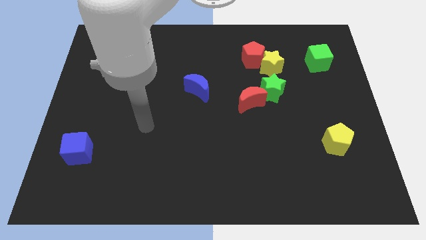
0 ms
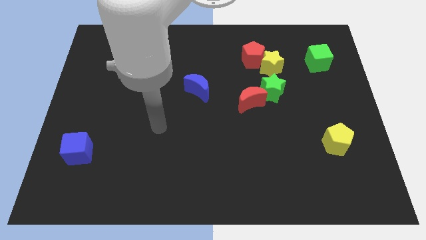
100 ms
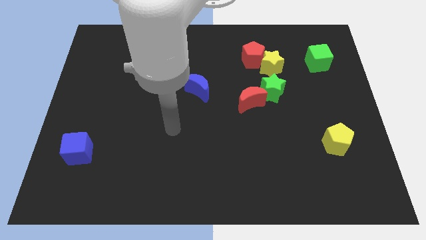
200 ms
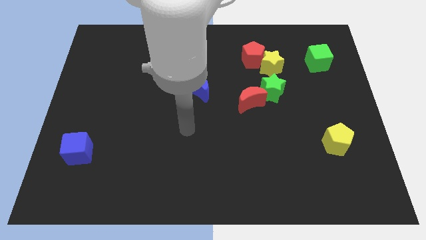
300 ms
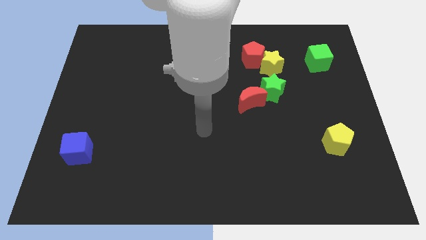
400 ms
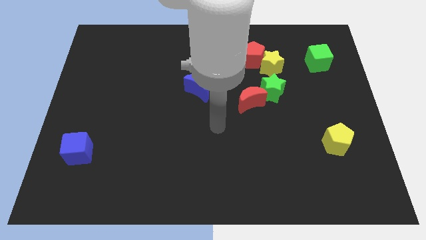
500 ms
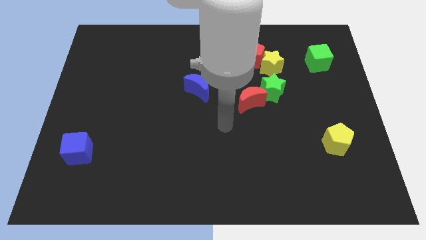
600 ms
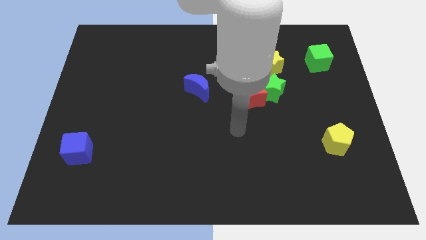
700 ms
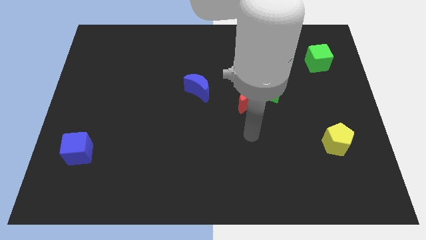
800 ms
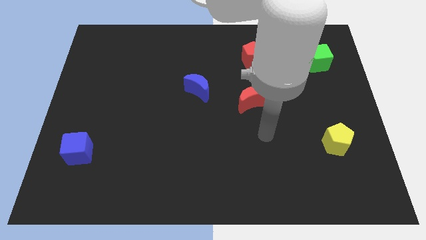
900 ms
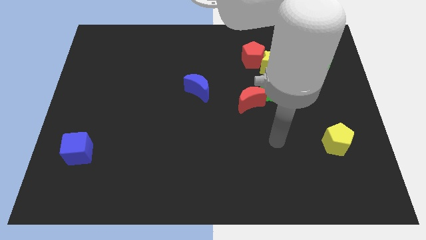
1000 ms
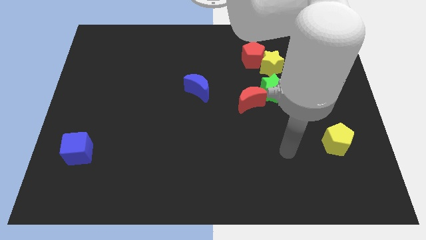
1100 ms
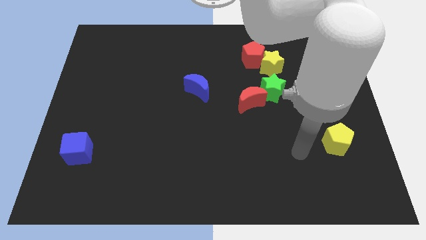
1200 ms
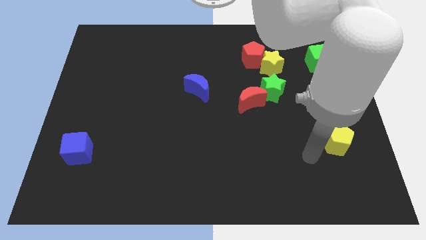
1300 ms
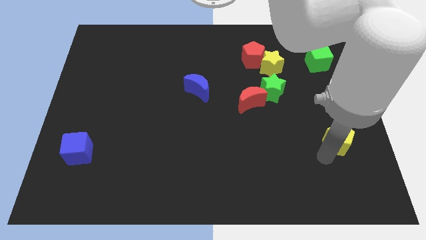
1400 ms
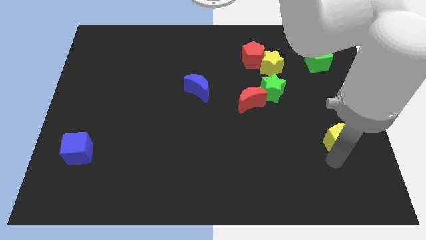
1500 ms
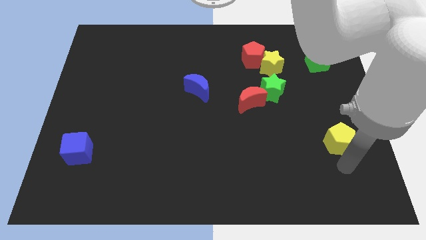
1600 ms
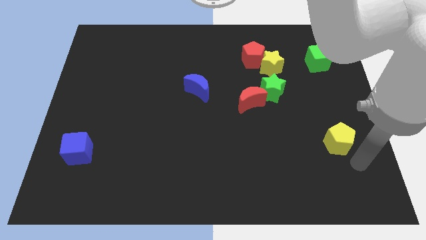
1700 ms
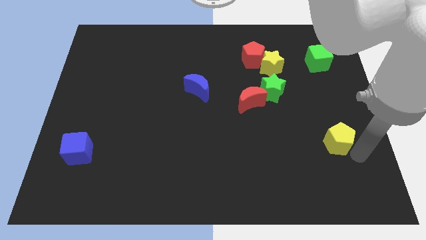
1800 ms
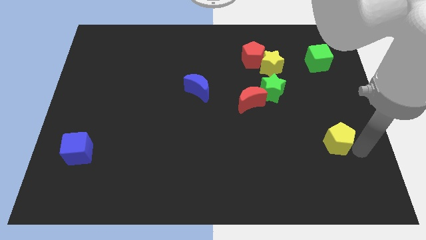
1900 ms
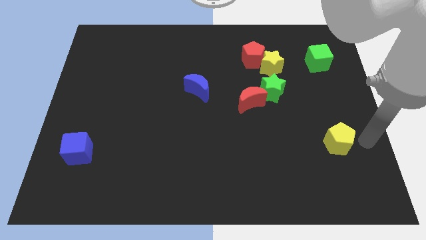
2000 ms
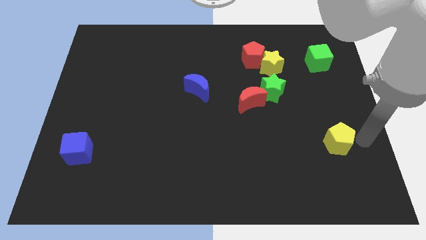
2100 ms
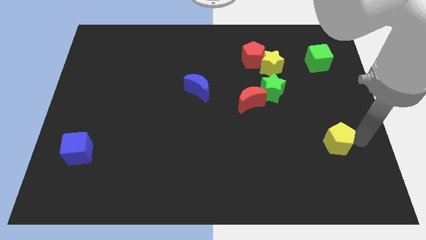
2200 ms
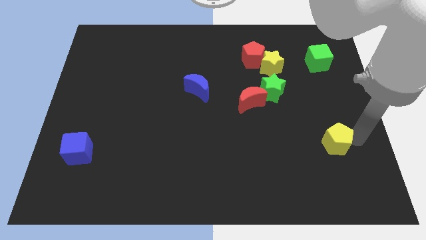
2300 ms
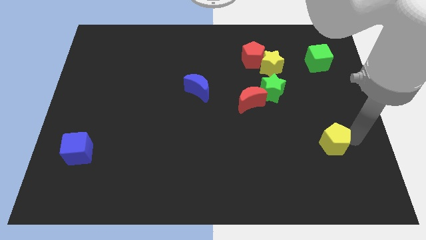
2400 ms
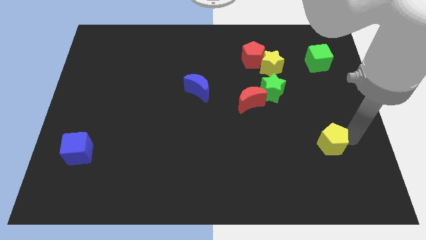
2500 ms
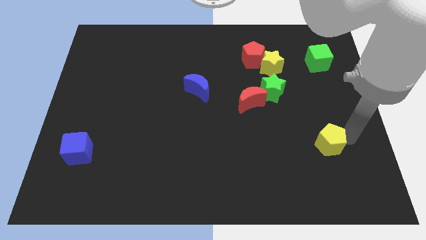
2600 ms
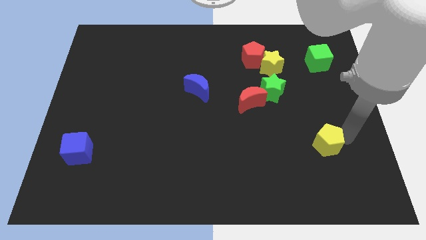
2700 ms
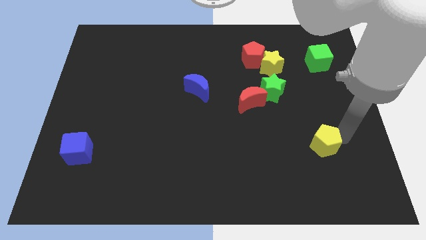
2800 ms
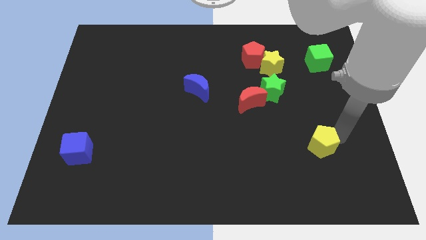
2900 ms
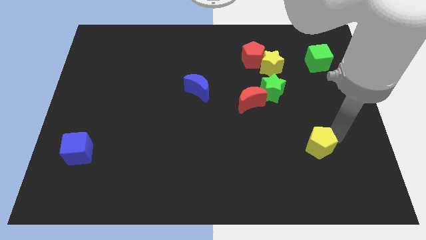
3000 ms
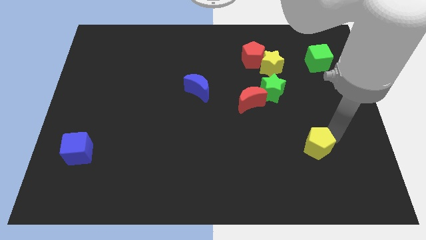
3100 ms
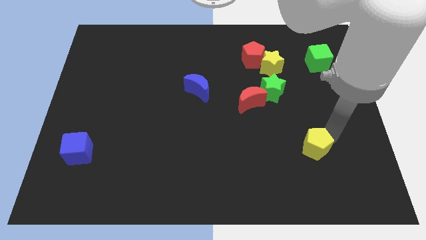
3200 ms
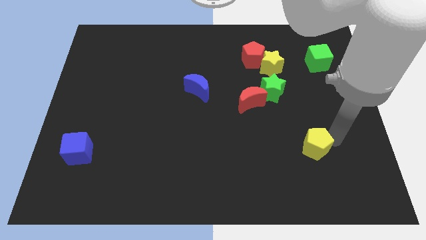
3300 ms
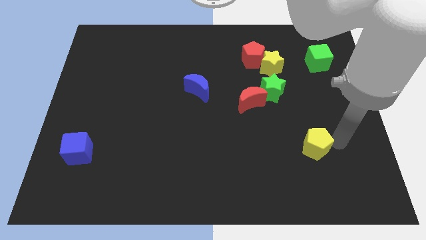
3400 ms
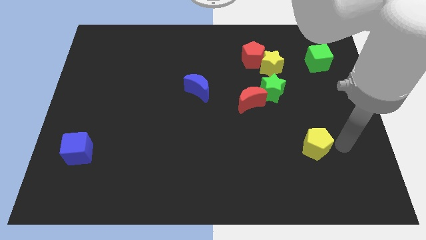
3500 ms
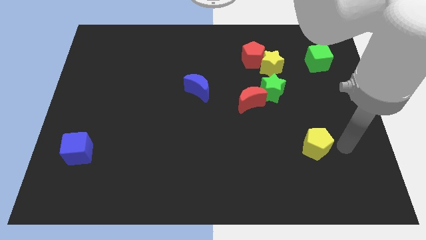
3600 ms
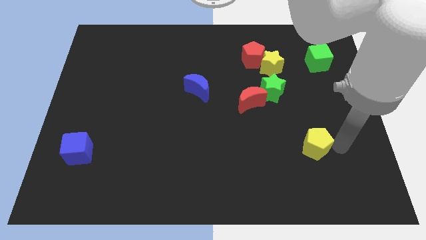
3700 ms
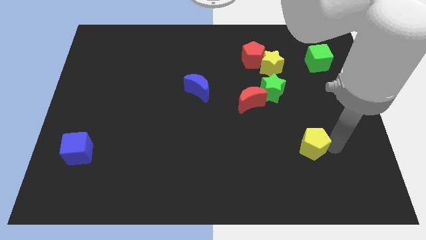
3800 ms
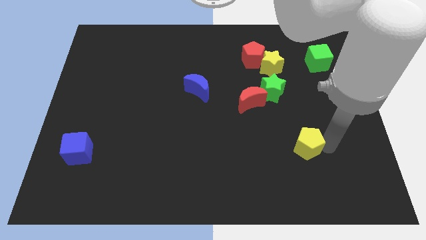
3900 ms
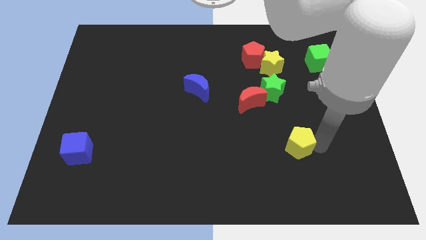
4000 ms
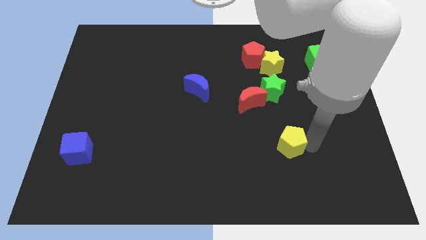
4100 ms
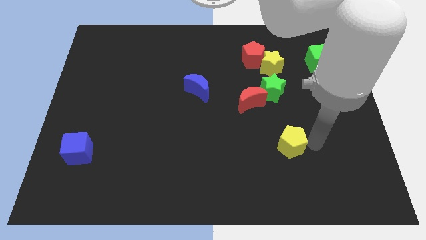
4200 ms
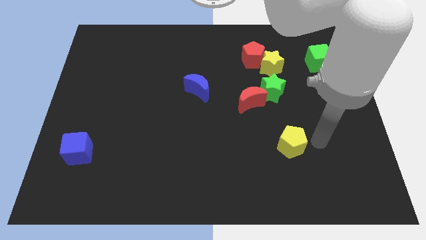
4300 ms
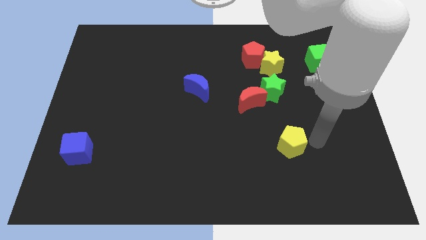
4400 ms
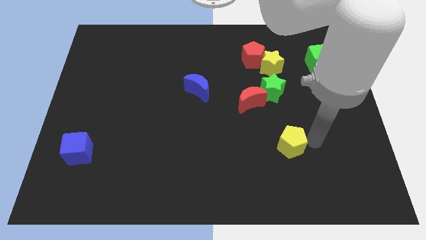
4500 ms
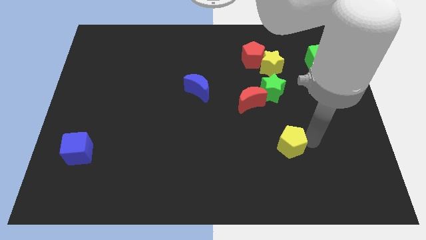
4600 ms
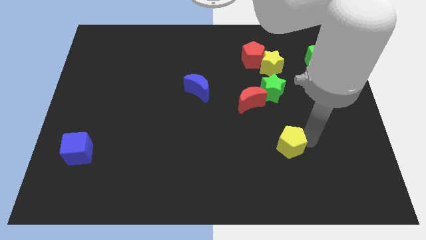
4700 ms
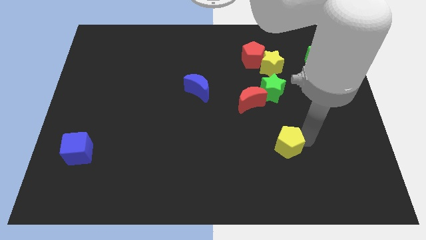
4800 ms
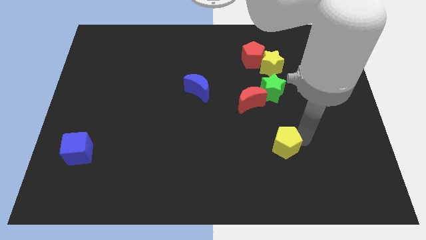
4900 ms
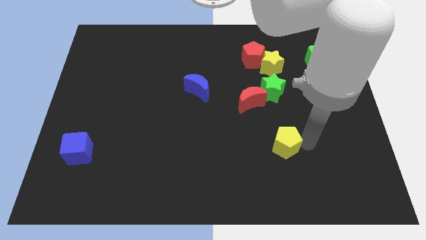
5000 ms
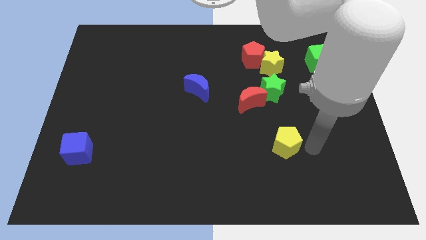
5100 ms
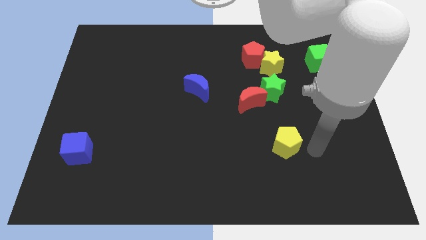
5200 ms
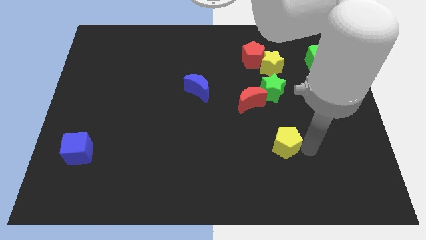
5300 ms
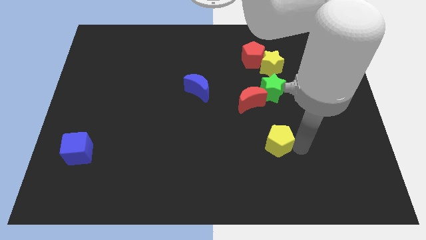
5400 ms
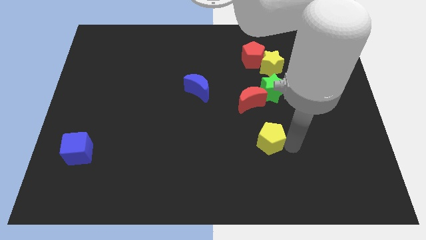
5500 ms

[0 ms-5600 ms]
push the yellow pentagon to the bottom side of the red moon

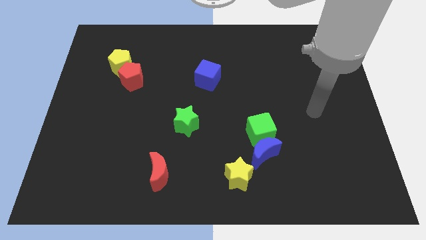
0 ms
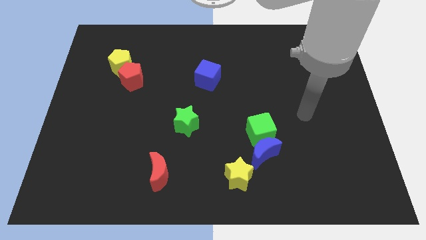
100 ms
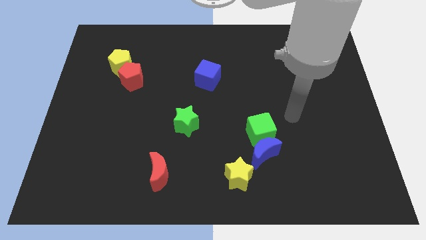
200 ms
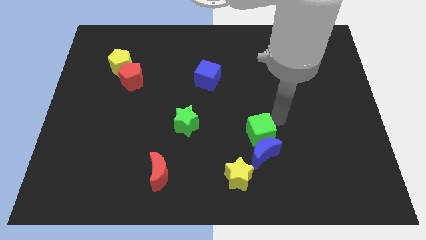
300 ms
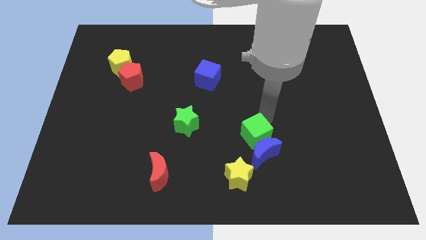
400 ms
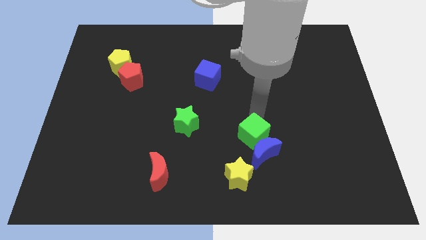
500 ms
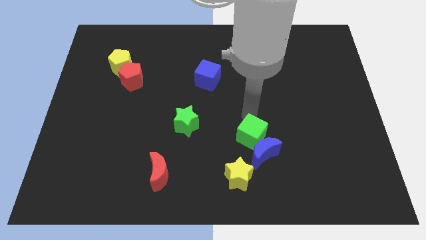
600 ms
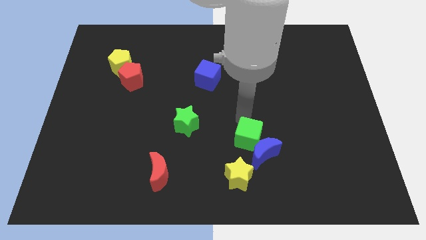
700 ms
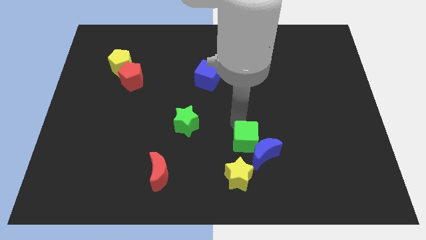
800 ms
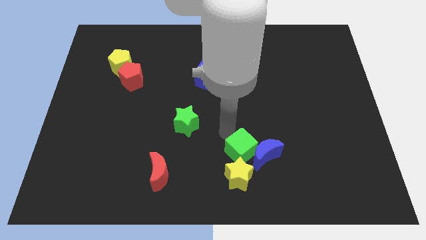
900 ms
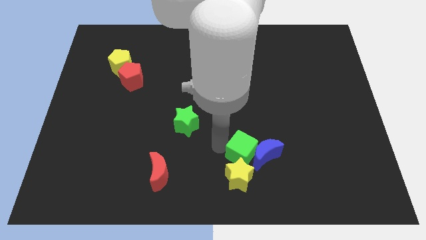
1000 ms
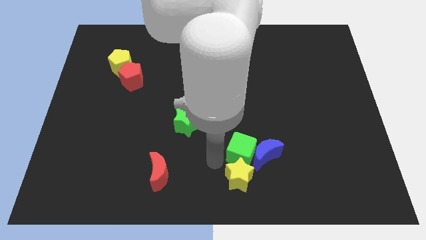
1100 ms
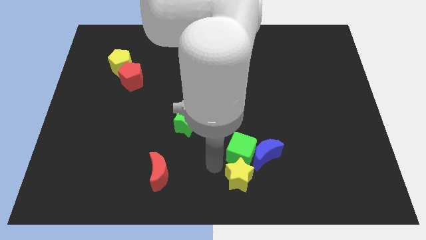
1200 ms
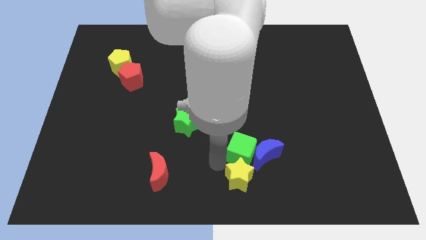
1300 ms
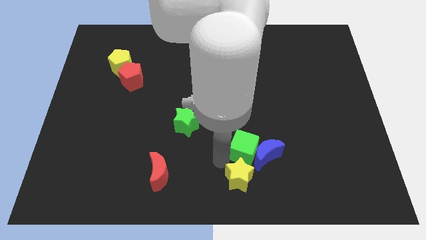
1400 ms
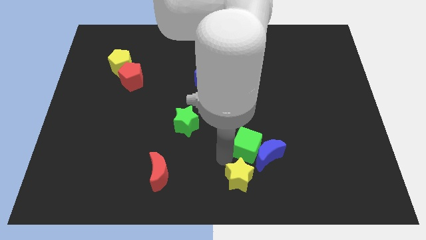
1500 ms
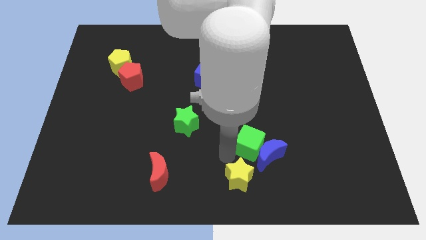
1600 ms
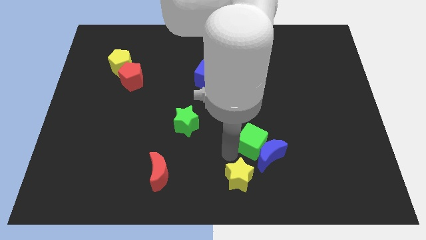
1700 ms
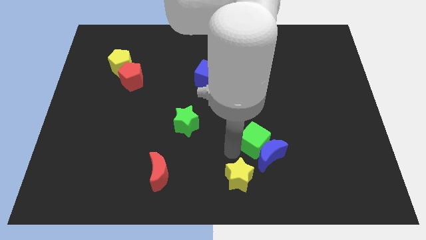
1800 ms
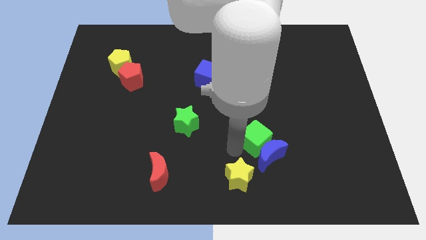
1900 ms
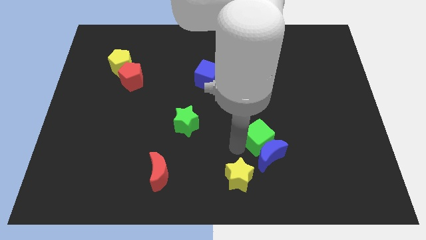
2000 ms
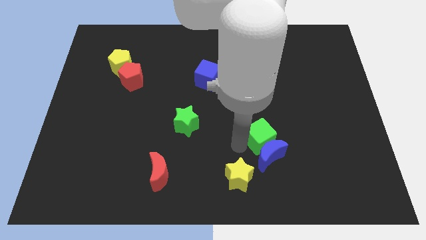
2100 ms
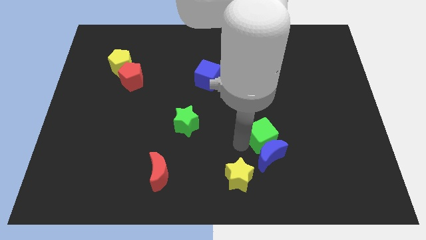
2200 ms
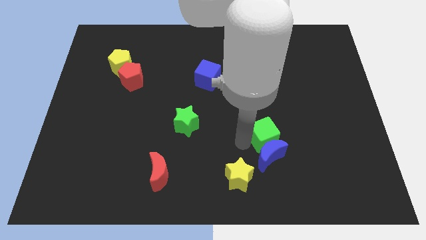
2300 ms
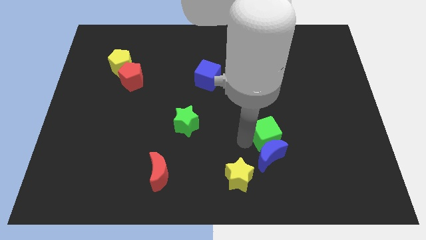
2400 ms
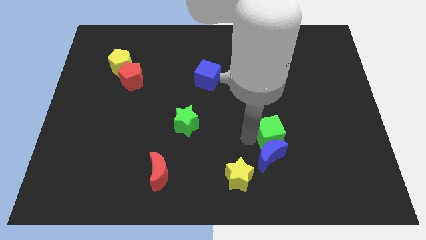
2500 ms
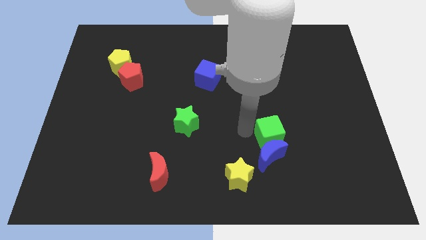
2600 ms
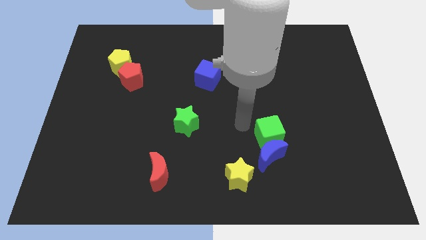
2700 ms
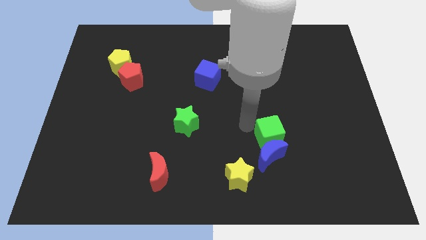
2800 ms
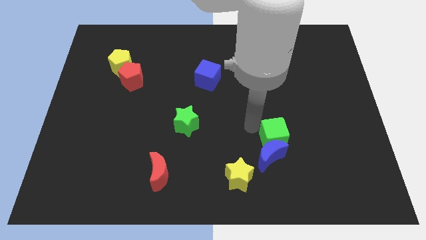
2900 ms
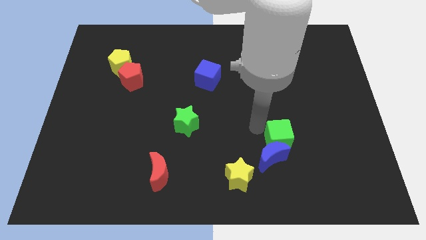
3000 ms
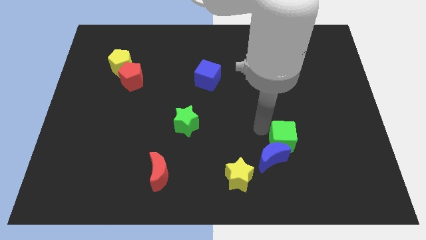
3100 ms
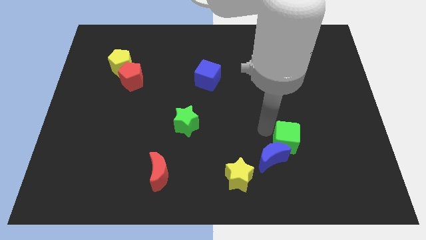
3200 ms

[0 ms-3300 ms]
slide the green cube to the right of the blue moon
